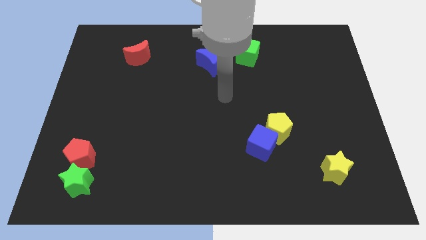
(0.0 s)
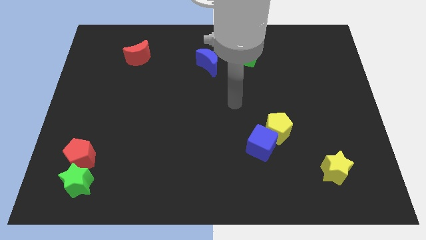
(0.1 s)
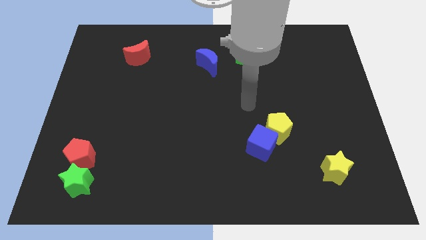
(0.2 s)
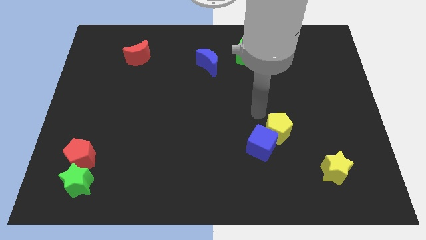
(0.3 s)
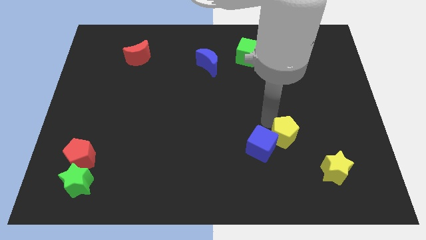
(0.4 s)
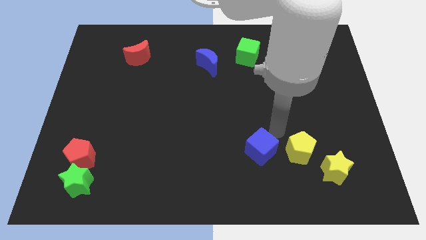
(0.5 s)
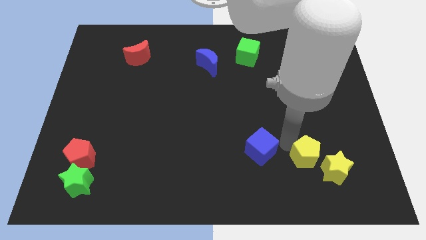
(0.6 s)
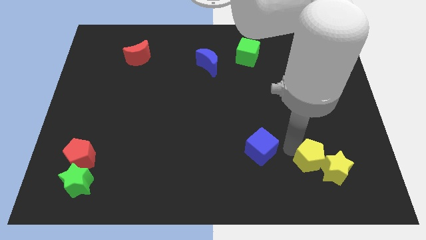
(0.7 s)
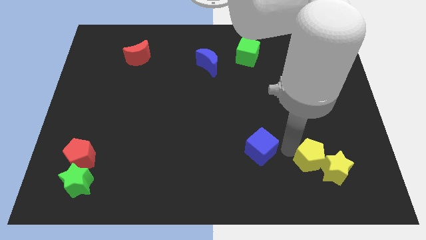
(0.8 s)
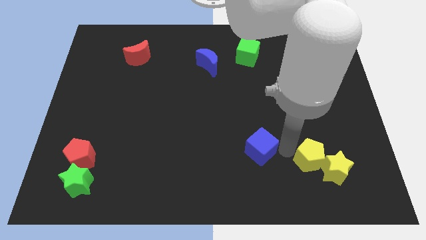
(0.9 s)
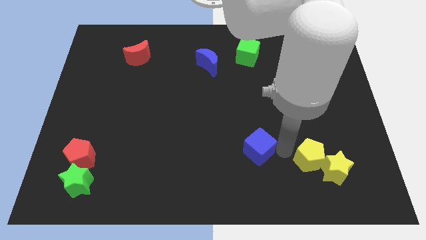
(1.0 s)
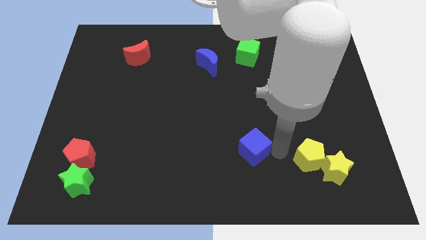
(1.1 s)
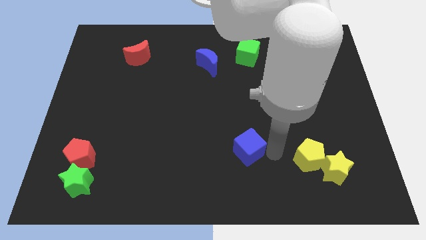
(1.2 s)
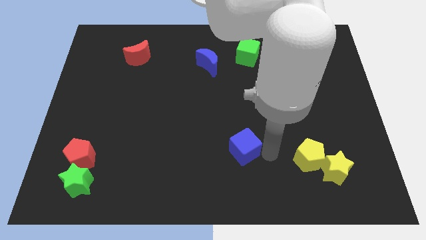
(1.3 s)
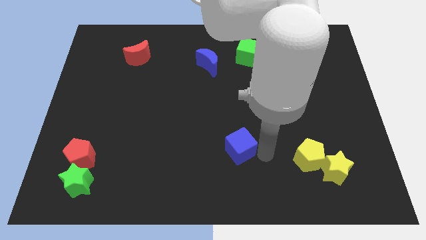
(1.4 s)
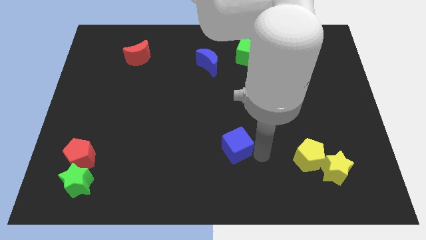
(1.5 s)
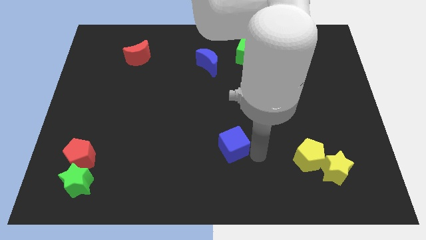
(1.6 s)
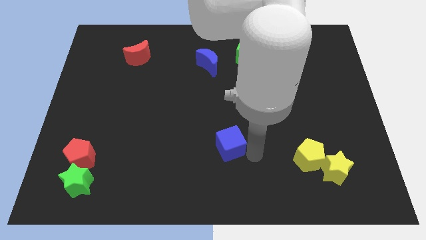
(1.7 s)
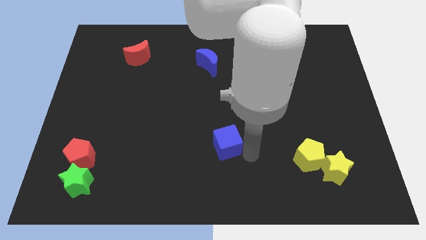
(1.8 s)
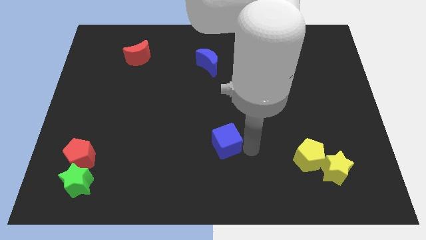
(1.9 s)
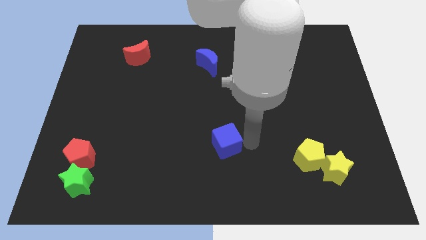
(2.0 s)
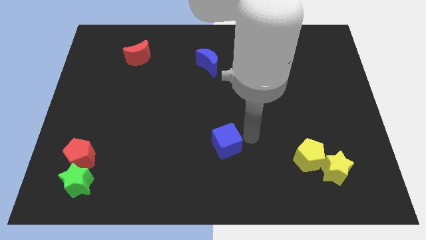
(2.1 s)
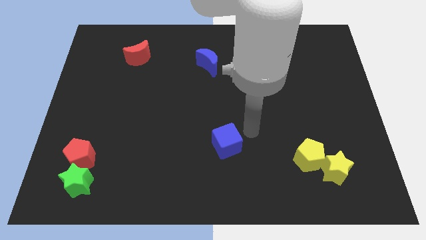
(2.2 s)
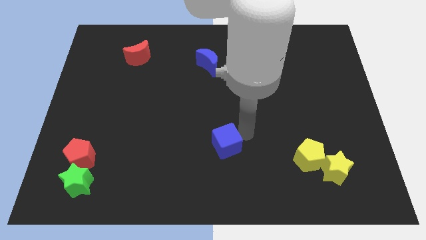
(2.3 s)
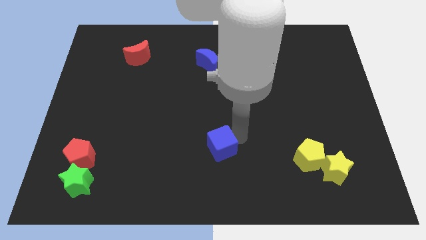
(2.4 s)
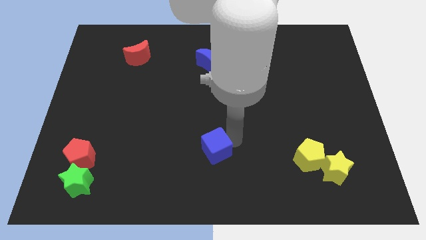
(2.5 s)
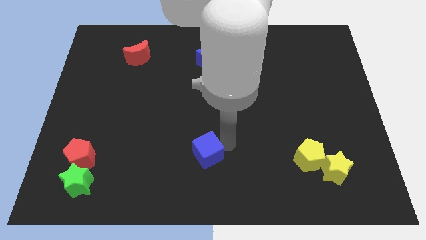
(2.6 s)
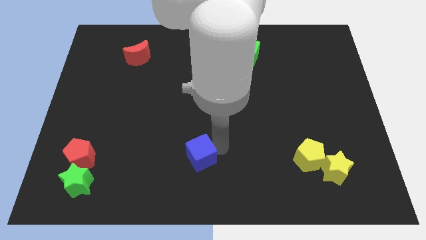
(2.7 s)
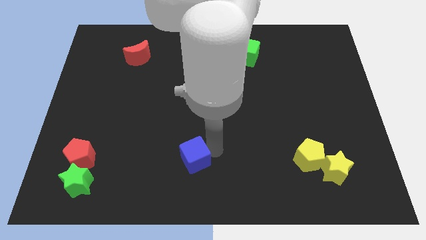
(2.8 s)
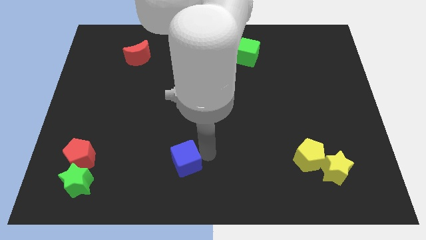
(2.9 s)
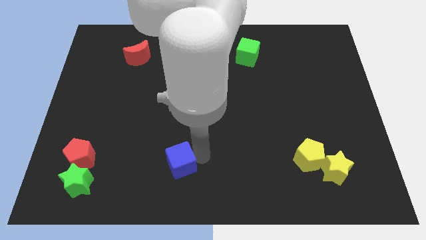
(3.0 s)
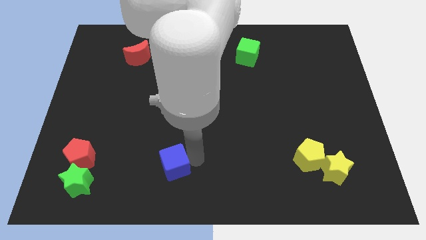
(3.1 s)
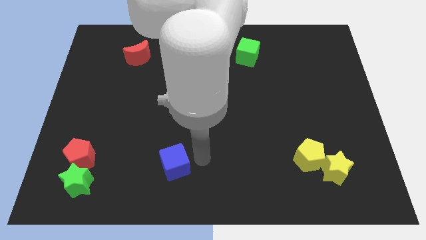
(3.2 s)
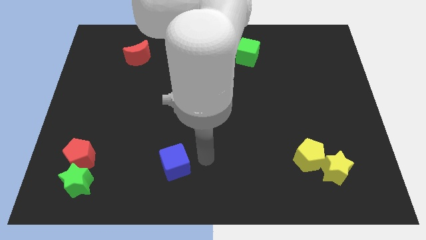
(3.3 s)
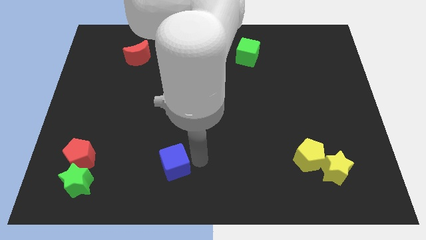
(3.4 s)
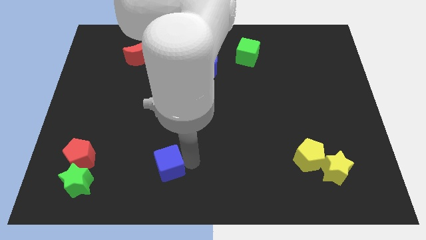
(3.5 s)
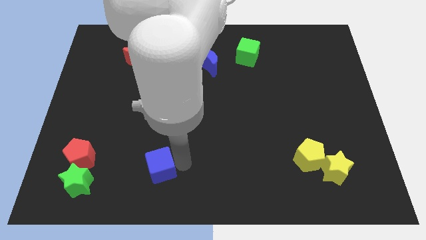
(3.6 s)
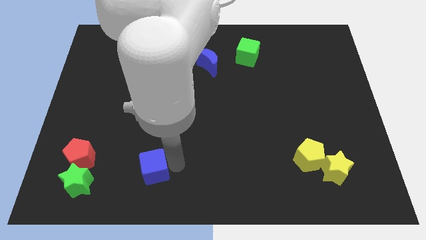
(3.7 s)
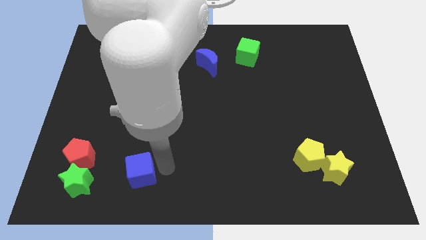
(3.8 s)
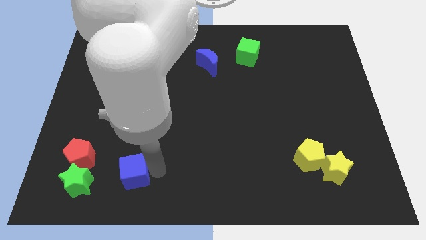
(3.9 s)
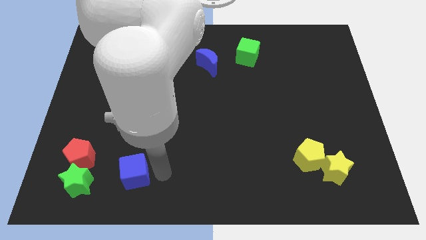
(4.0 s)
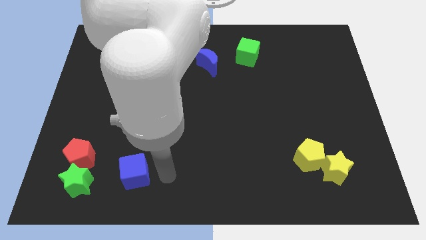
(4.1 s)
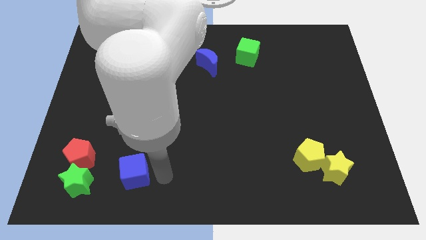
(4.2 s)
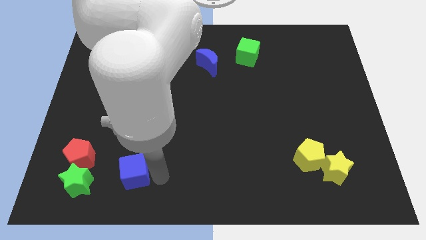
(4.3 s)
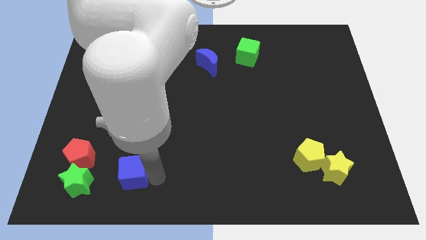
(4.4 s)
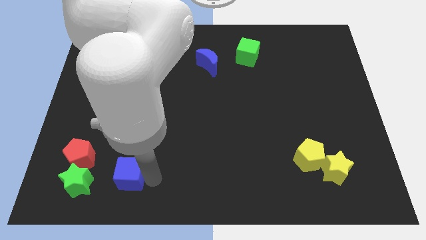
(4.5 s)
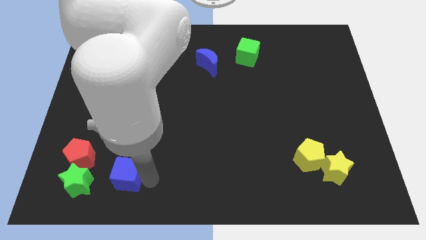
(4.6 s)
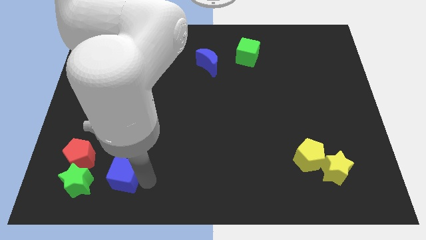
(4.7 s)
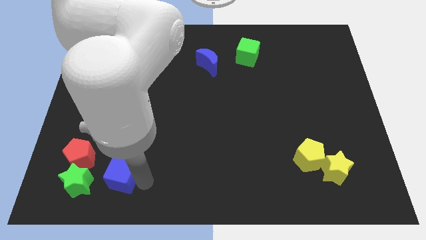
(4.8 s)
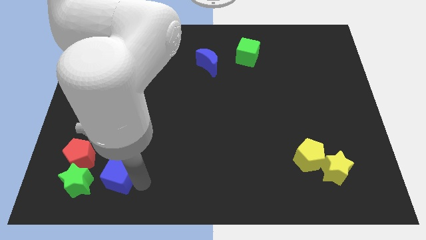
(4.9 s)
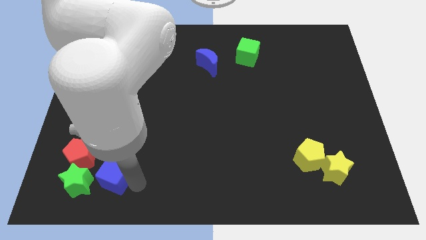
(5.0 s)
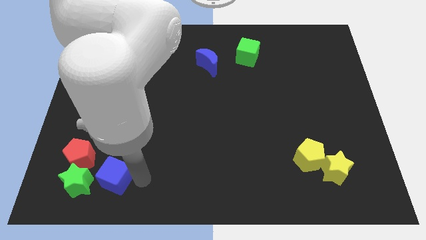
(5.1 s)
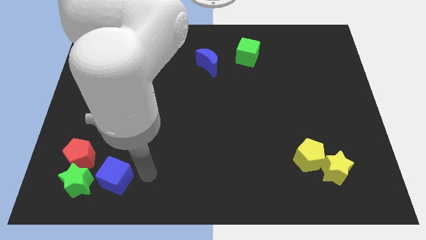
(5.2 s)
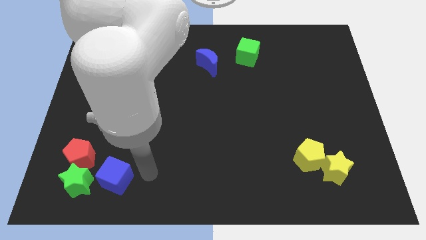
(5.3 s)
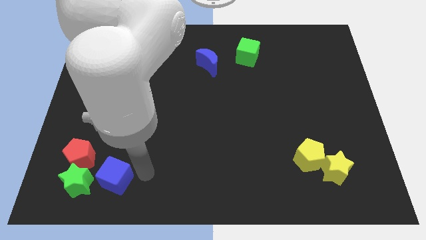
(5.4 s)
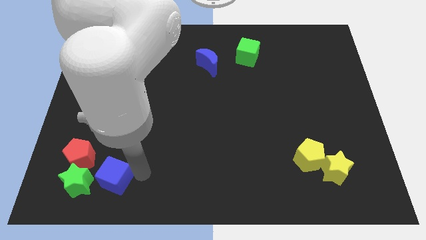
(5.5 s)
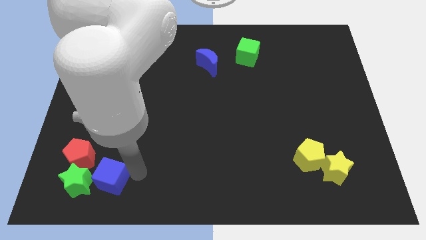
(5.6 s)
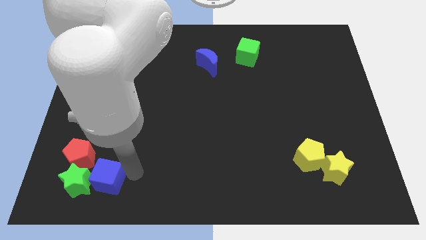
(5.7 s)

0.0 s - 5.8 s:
move the blue cube close to the green star

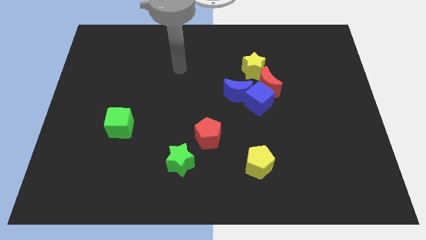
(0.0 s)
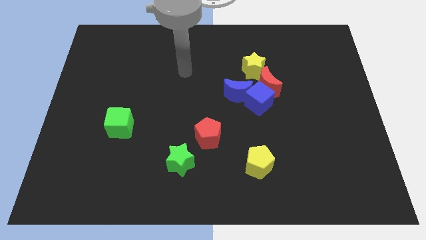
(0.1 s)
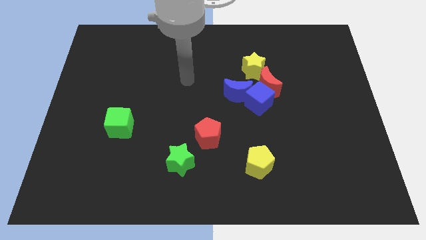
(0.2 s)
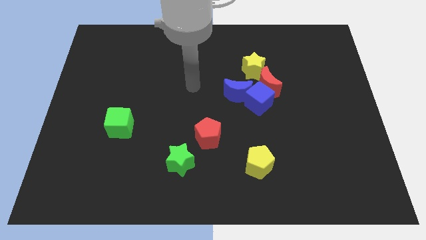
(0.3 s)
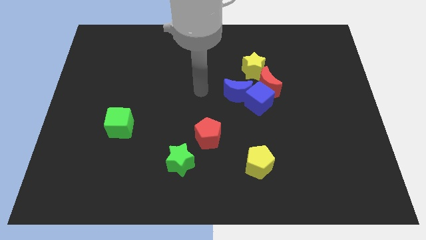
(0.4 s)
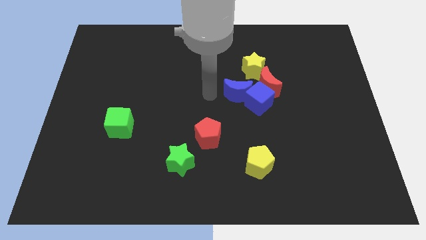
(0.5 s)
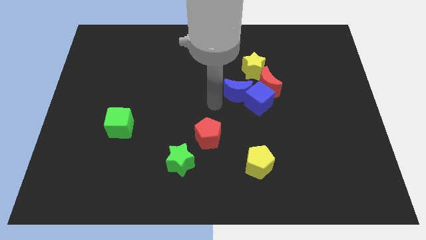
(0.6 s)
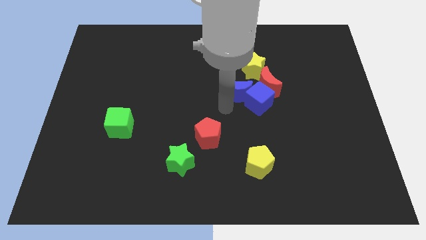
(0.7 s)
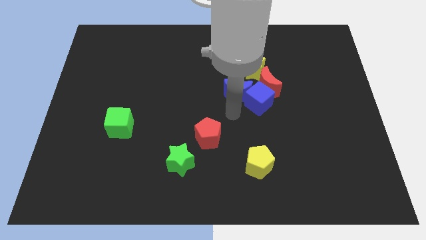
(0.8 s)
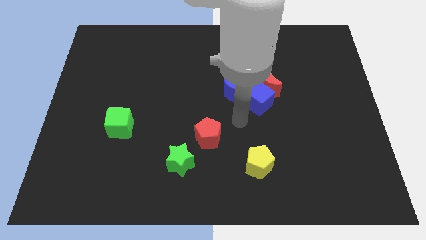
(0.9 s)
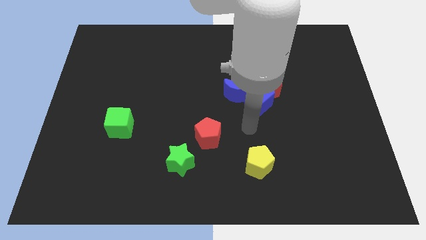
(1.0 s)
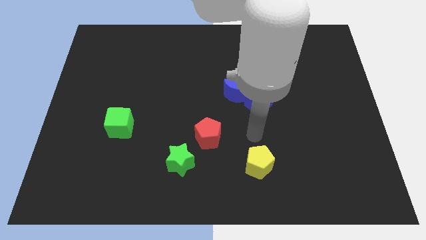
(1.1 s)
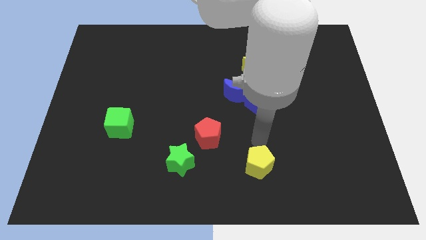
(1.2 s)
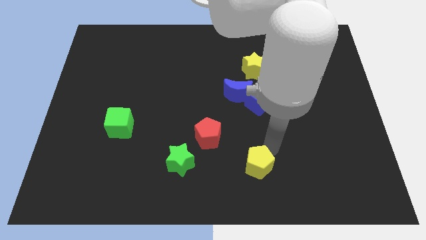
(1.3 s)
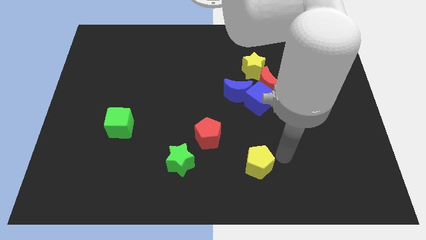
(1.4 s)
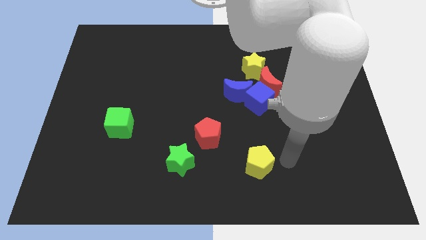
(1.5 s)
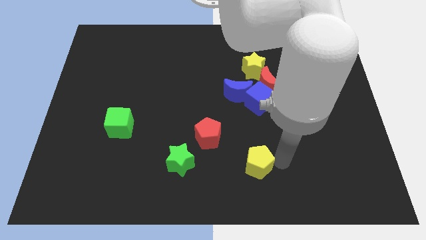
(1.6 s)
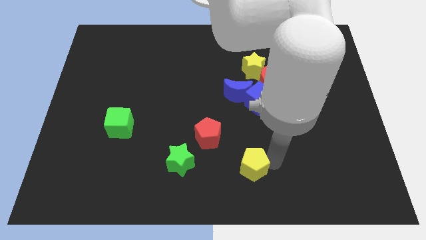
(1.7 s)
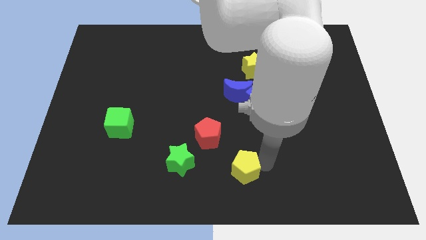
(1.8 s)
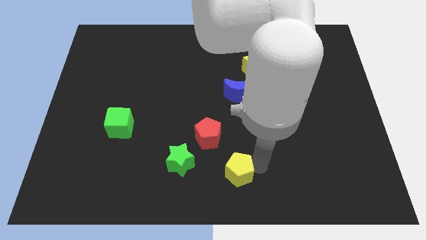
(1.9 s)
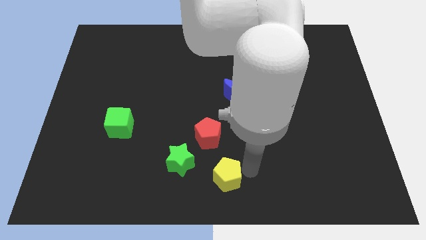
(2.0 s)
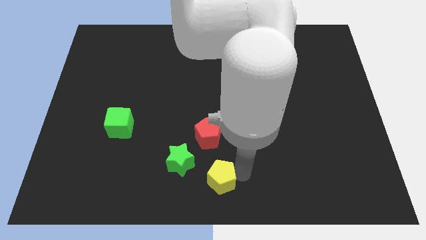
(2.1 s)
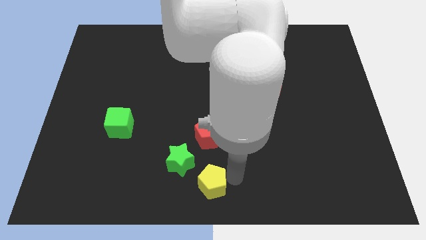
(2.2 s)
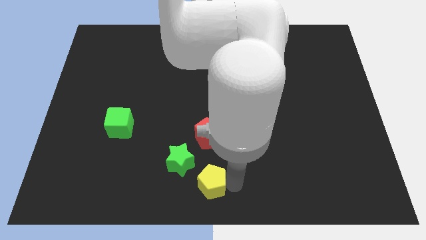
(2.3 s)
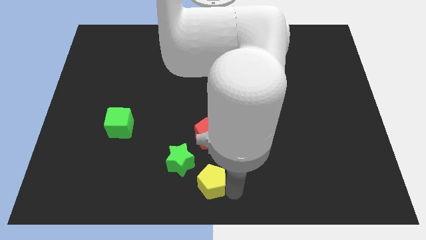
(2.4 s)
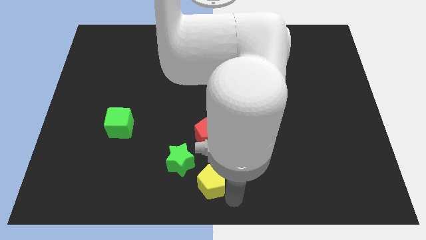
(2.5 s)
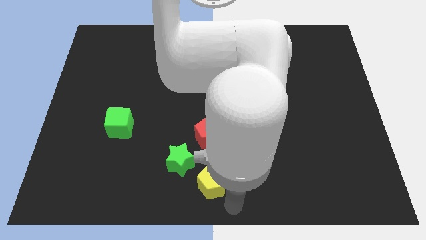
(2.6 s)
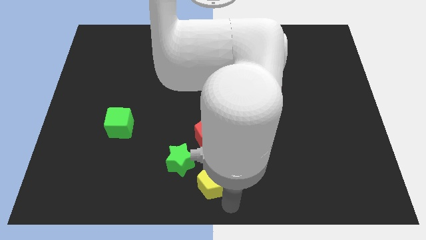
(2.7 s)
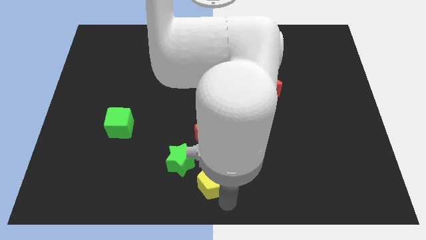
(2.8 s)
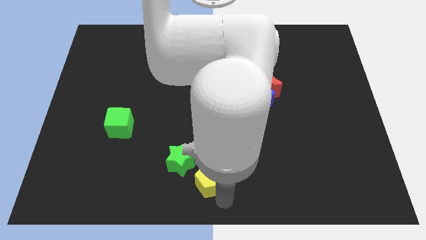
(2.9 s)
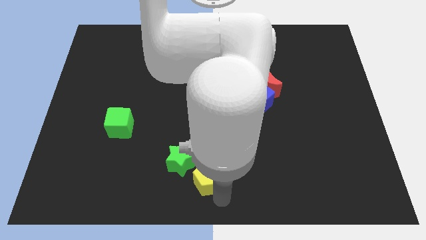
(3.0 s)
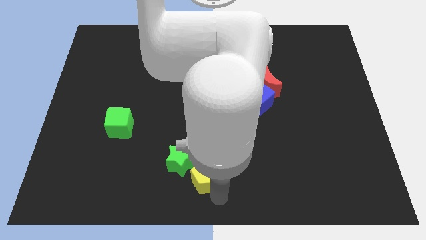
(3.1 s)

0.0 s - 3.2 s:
slide the yellow pentagon close to the green star
